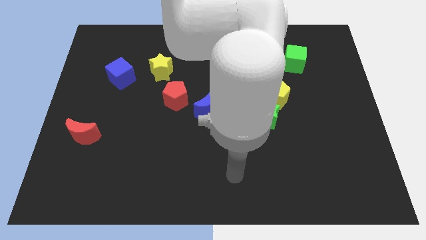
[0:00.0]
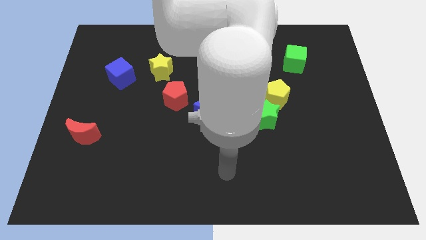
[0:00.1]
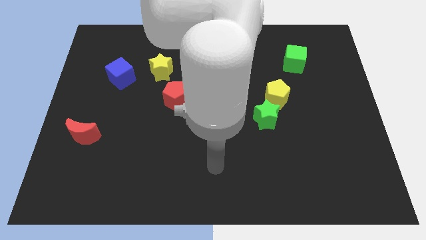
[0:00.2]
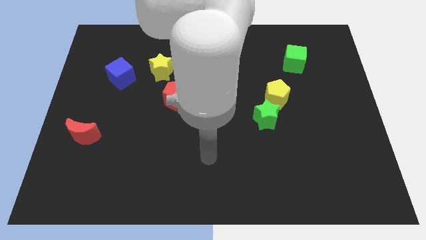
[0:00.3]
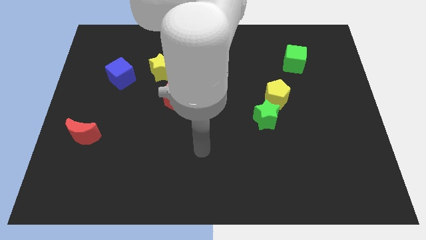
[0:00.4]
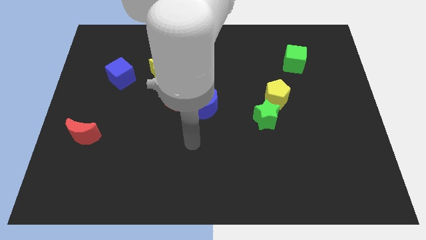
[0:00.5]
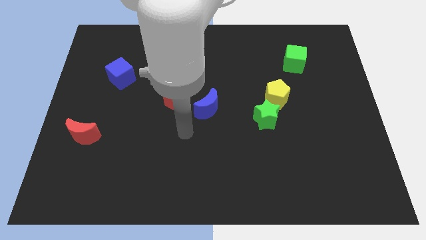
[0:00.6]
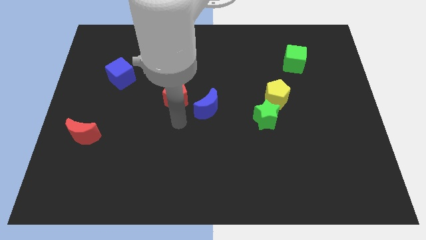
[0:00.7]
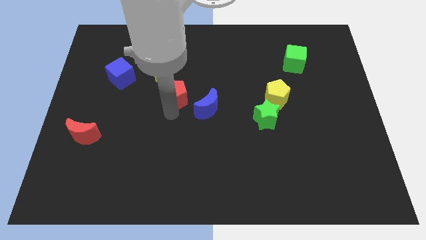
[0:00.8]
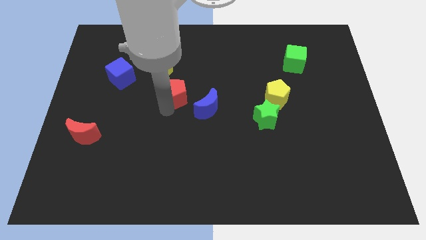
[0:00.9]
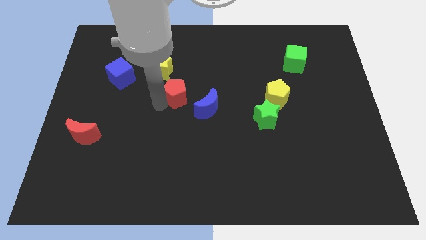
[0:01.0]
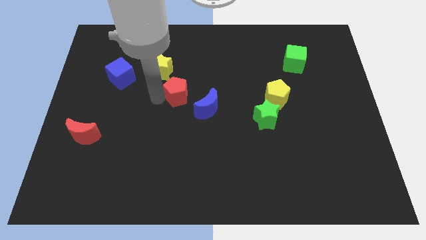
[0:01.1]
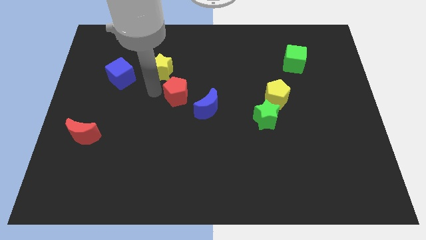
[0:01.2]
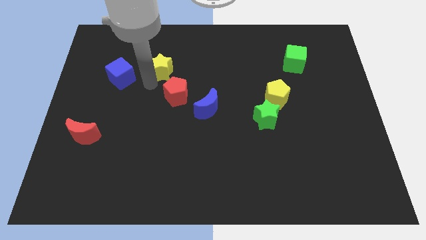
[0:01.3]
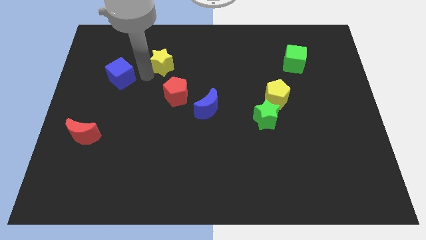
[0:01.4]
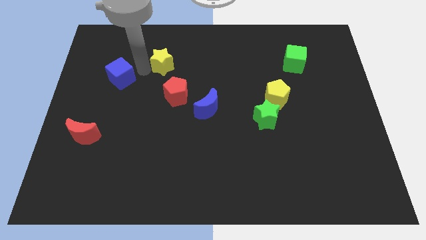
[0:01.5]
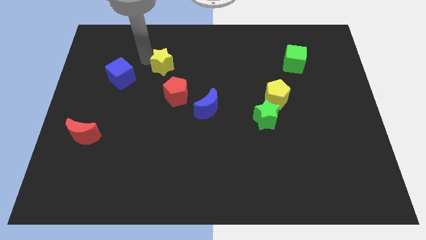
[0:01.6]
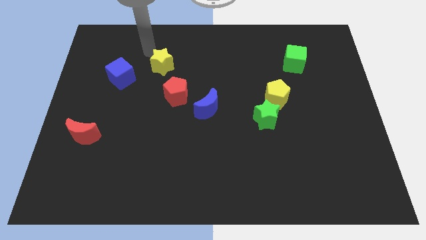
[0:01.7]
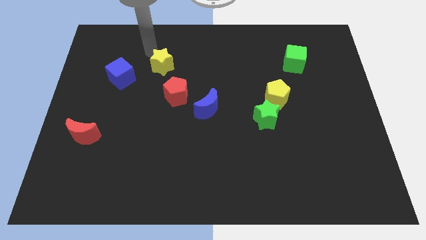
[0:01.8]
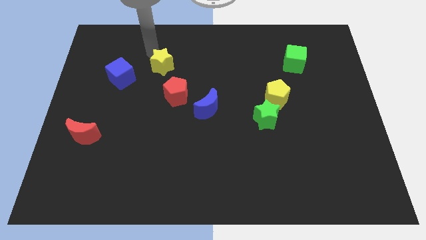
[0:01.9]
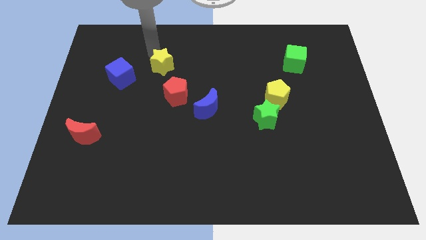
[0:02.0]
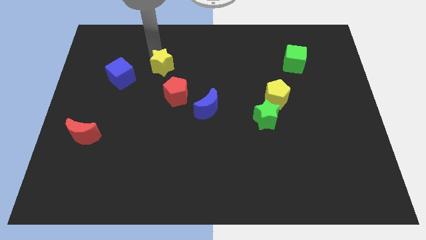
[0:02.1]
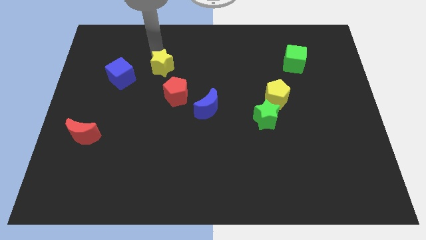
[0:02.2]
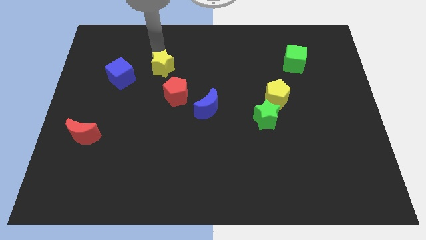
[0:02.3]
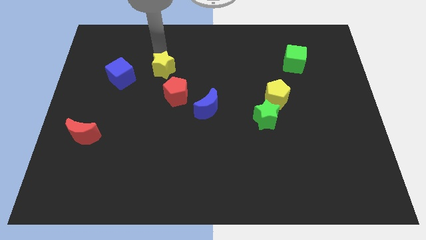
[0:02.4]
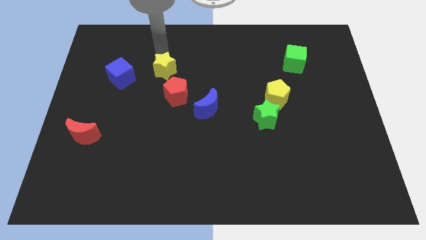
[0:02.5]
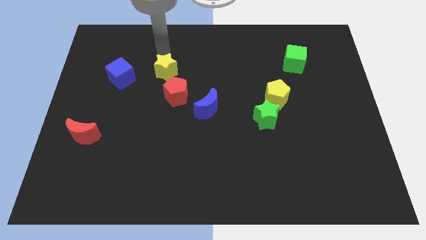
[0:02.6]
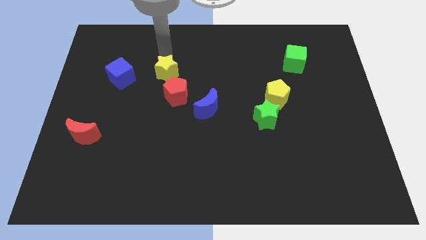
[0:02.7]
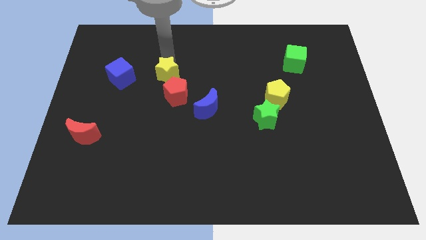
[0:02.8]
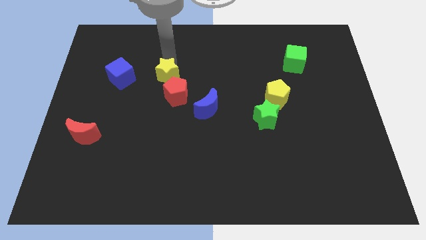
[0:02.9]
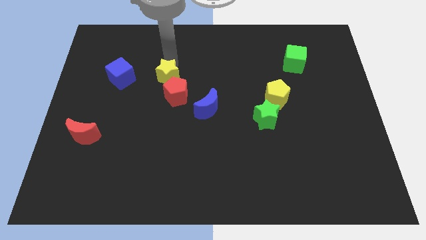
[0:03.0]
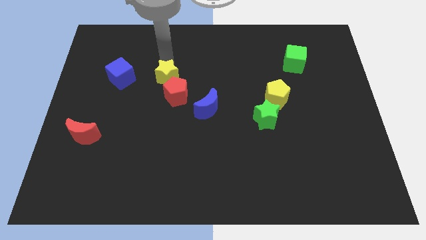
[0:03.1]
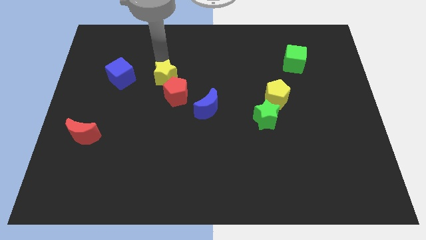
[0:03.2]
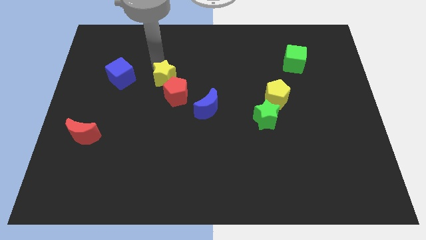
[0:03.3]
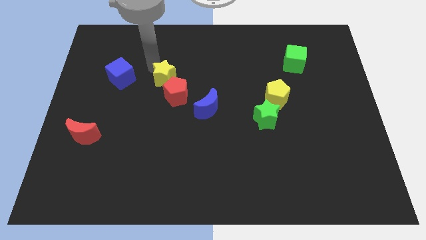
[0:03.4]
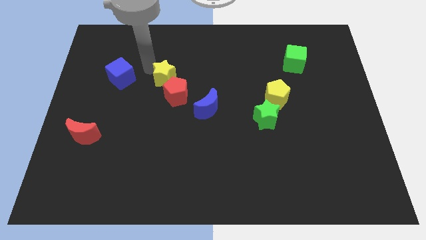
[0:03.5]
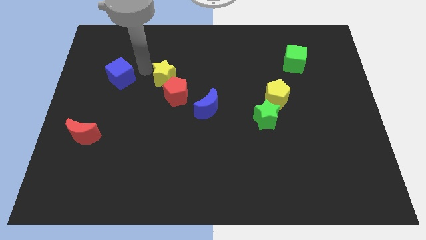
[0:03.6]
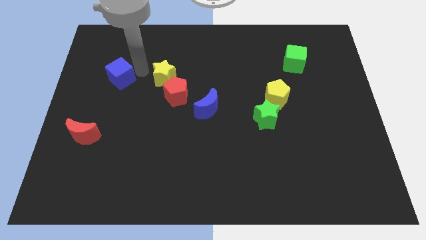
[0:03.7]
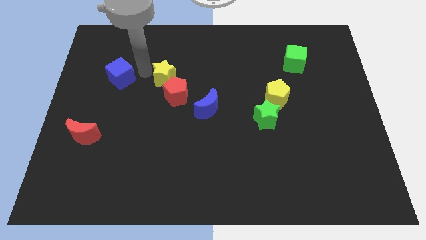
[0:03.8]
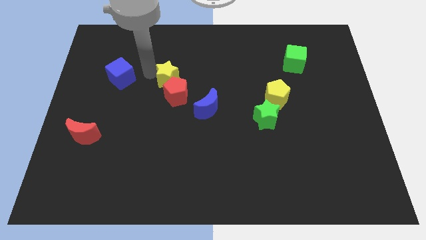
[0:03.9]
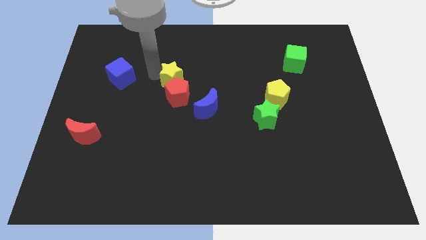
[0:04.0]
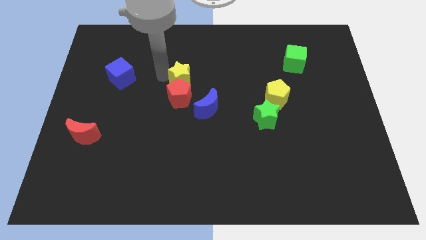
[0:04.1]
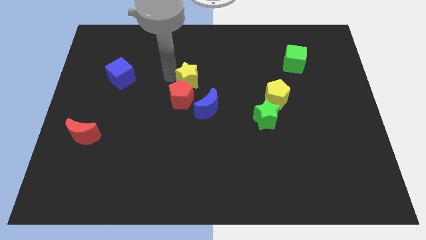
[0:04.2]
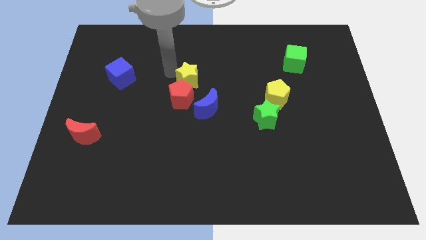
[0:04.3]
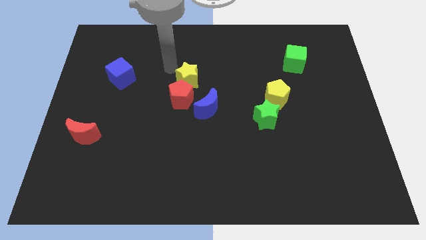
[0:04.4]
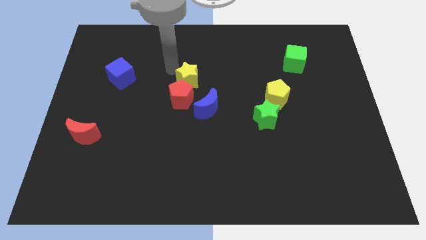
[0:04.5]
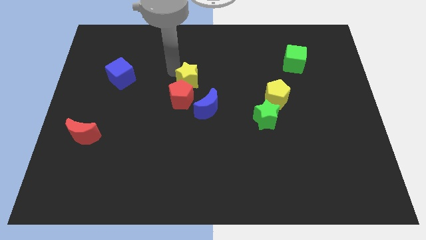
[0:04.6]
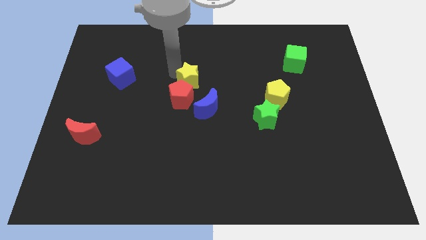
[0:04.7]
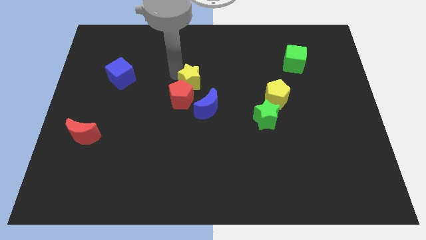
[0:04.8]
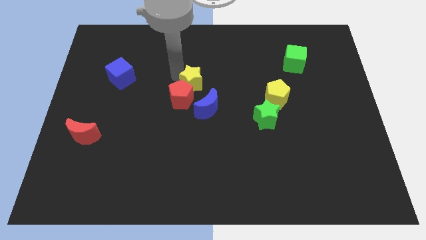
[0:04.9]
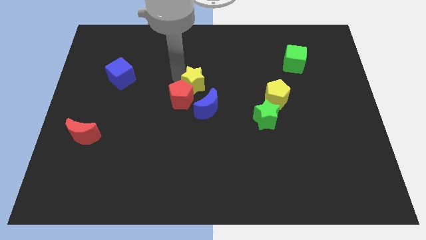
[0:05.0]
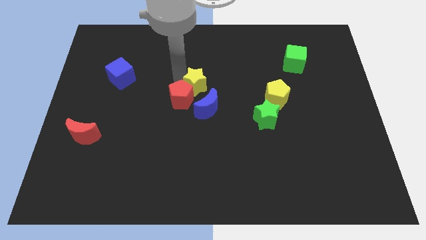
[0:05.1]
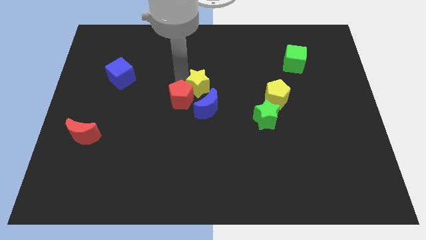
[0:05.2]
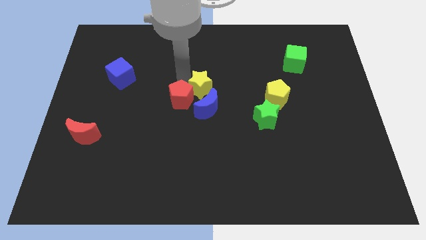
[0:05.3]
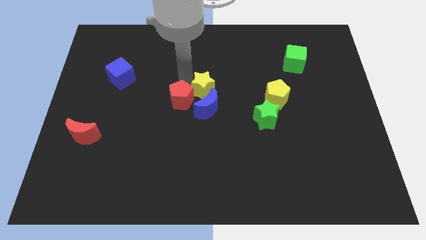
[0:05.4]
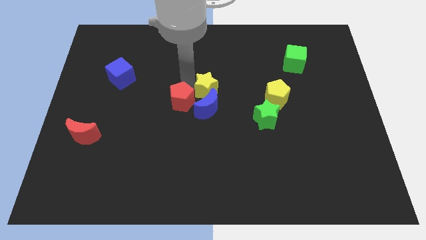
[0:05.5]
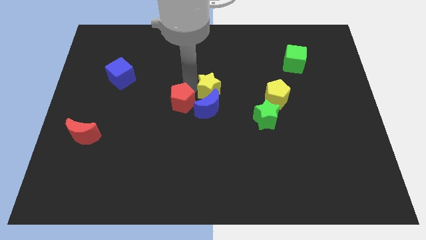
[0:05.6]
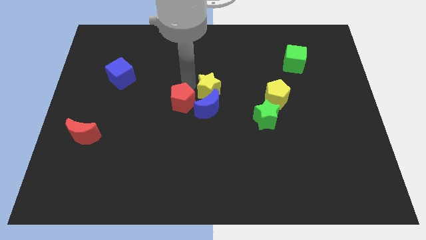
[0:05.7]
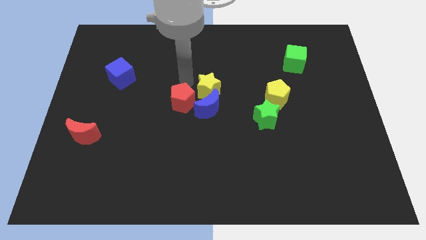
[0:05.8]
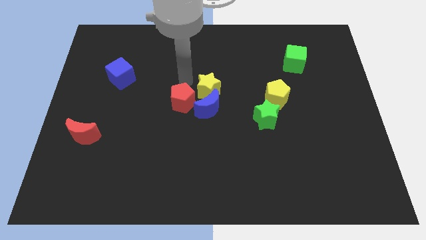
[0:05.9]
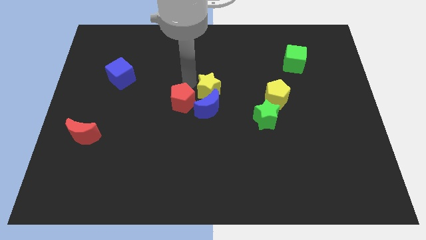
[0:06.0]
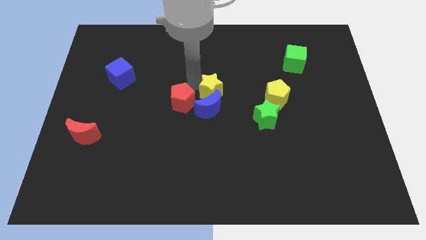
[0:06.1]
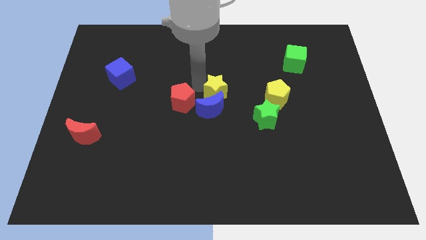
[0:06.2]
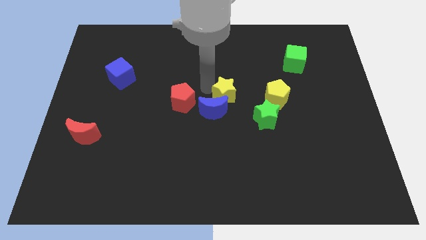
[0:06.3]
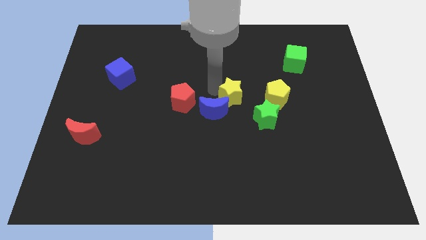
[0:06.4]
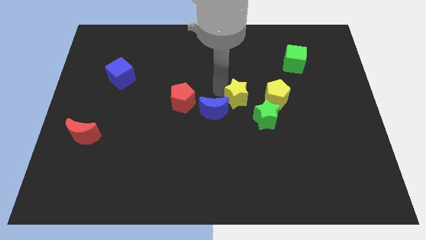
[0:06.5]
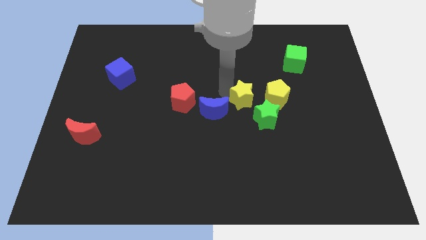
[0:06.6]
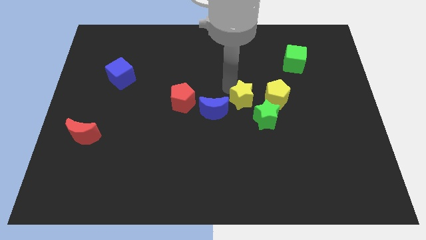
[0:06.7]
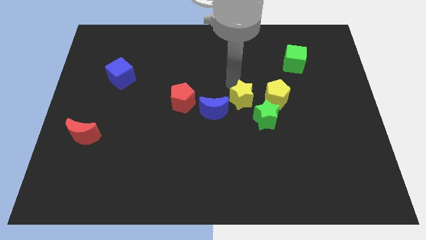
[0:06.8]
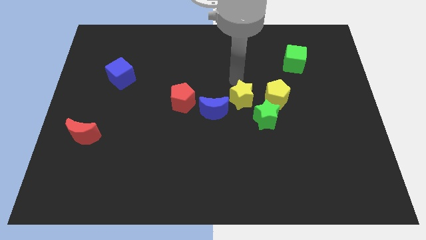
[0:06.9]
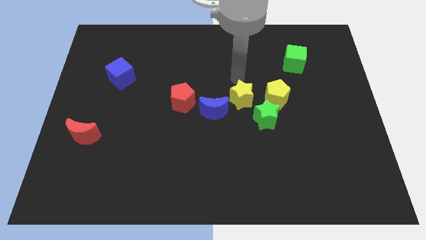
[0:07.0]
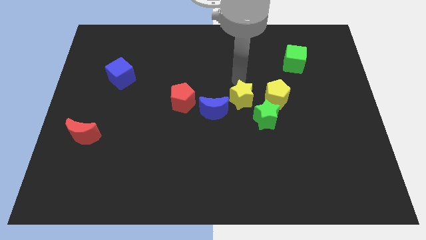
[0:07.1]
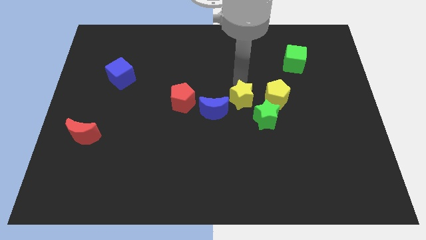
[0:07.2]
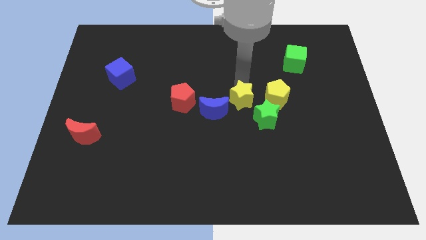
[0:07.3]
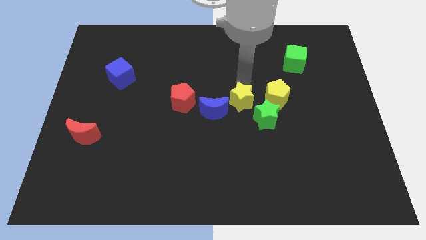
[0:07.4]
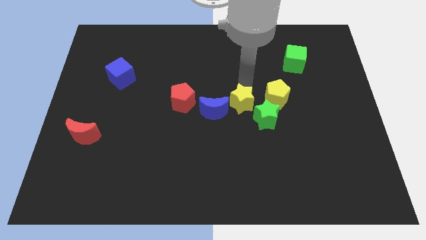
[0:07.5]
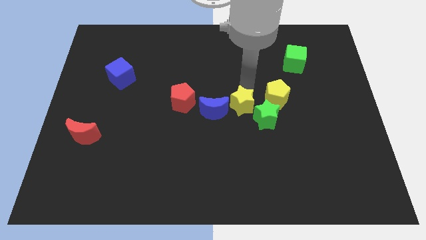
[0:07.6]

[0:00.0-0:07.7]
push the yellow star diagonally downwards and to the right

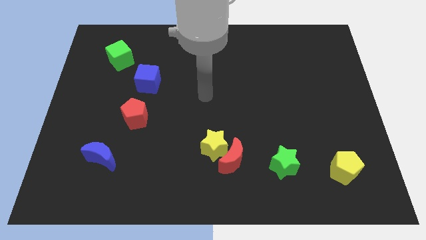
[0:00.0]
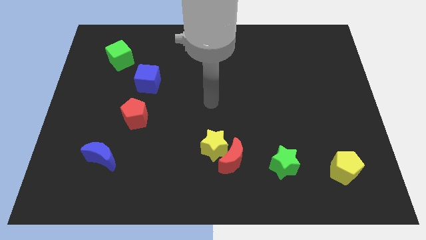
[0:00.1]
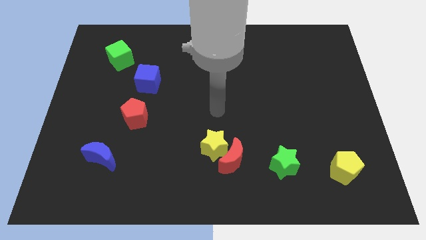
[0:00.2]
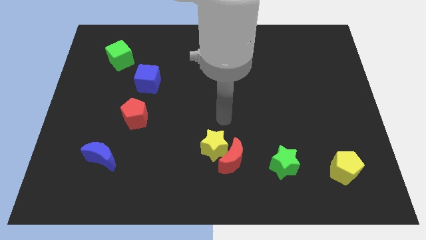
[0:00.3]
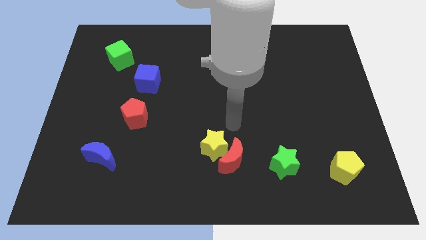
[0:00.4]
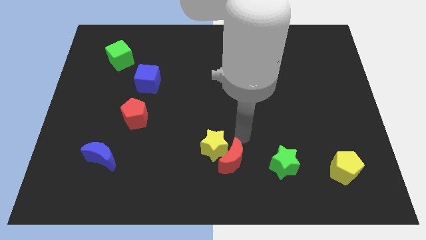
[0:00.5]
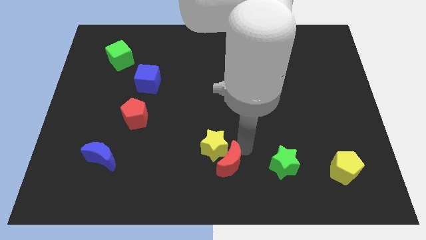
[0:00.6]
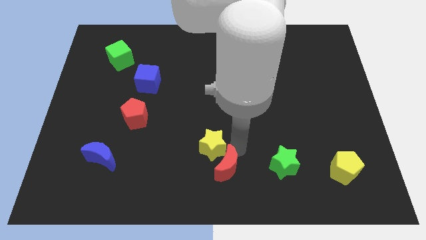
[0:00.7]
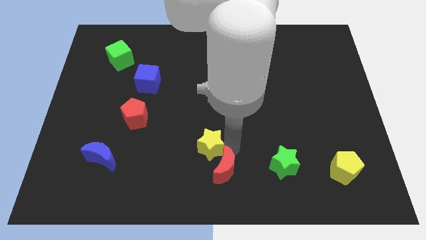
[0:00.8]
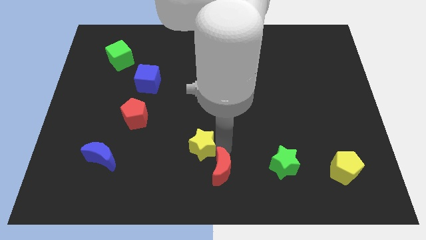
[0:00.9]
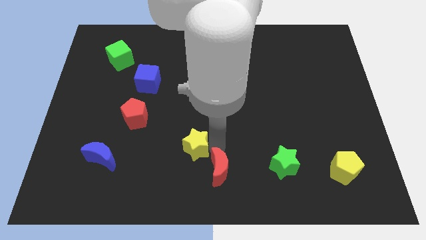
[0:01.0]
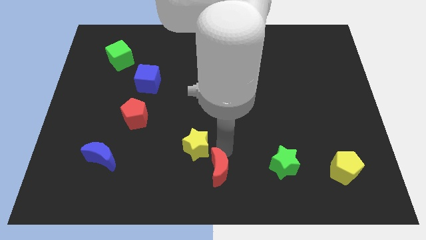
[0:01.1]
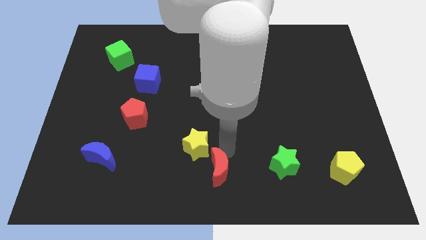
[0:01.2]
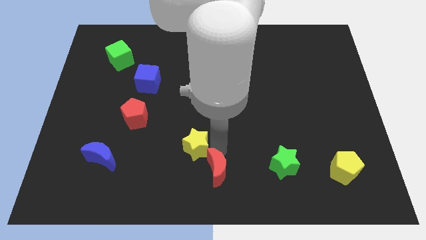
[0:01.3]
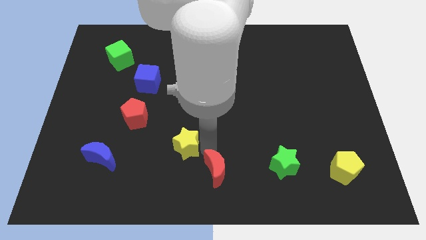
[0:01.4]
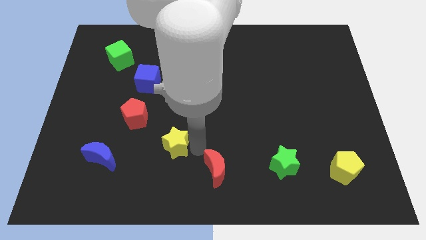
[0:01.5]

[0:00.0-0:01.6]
slide the yellow star to the left slightly
